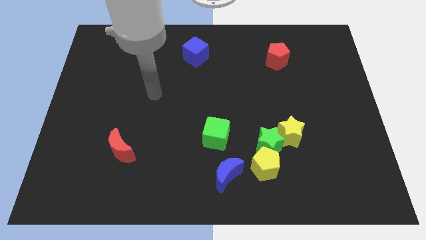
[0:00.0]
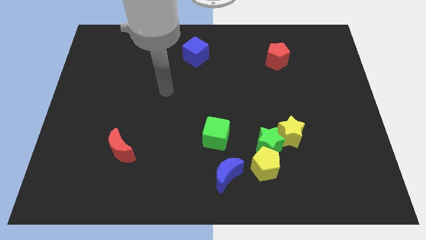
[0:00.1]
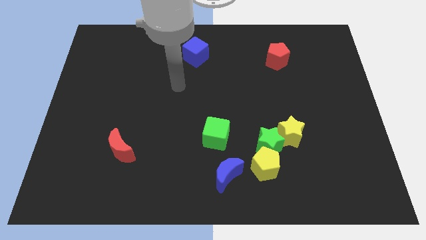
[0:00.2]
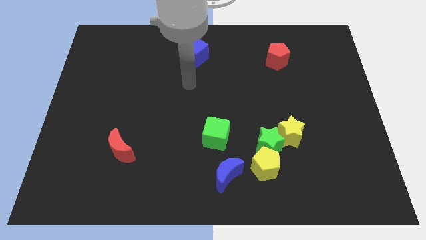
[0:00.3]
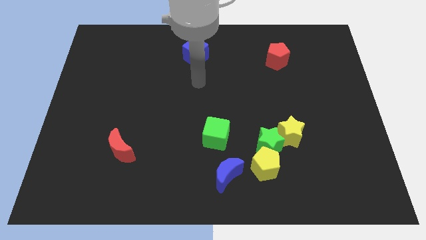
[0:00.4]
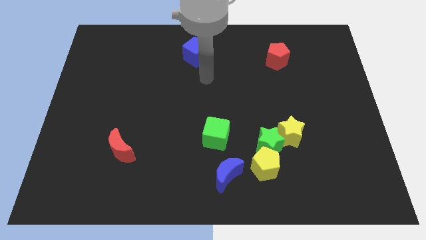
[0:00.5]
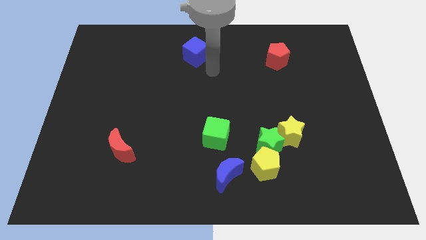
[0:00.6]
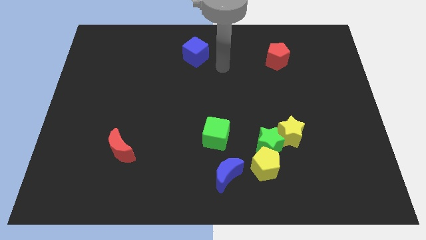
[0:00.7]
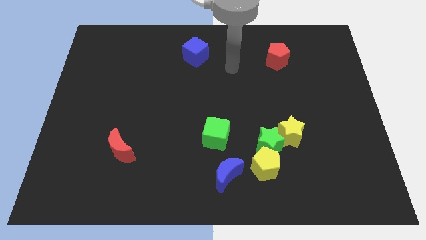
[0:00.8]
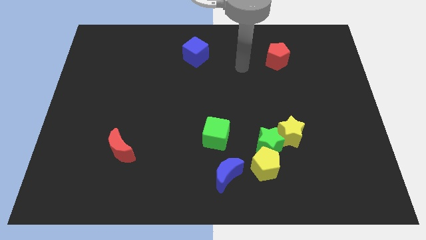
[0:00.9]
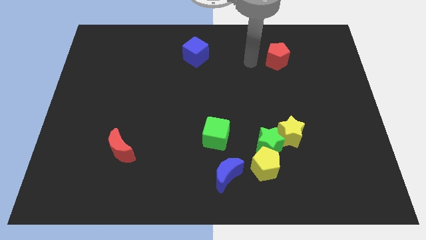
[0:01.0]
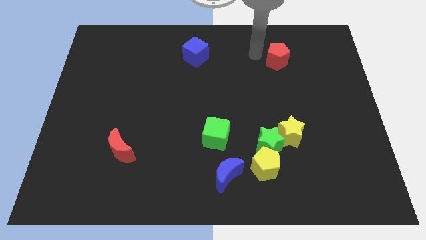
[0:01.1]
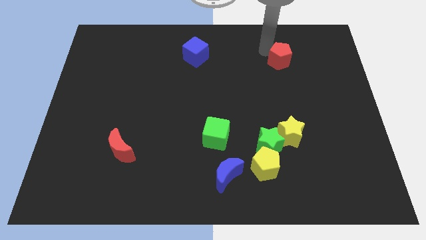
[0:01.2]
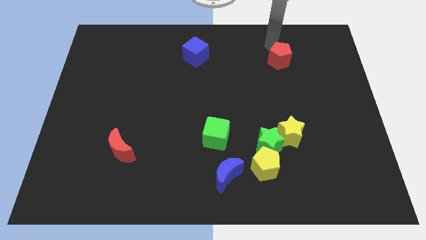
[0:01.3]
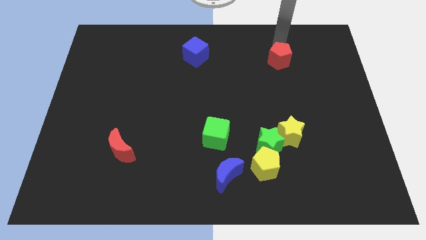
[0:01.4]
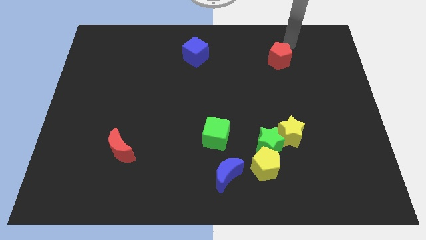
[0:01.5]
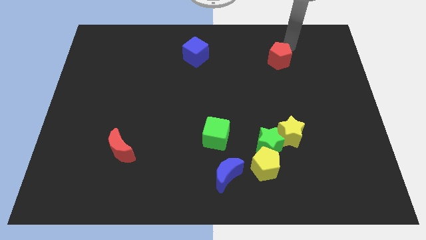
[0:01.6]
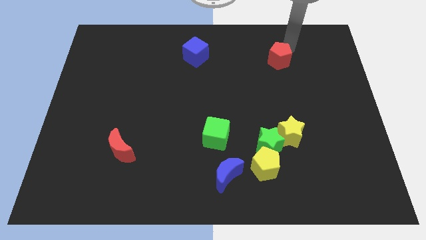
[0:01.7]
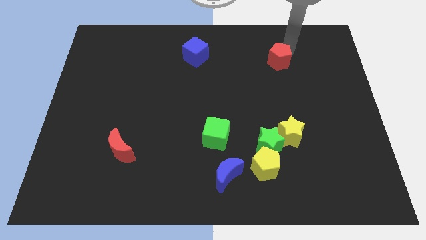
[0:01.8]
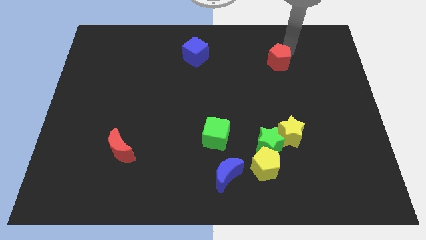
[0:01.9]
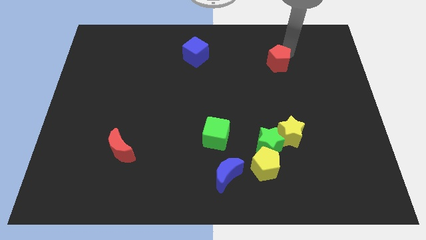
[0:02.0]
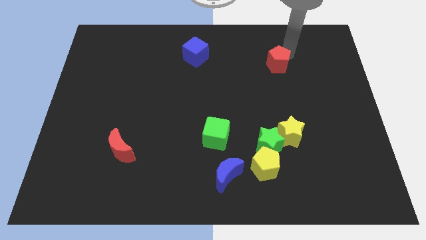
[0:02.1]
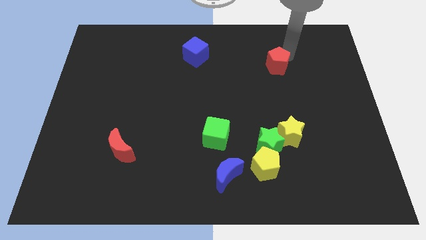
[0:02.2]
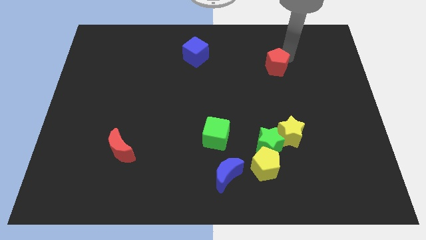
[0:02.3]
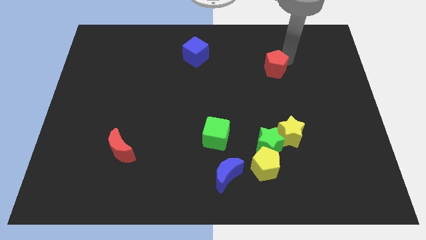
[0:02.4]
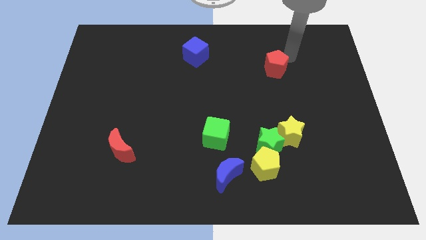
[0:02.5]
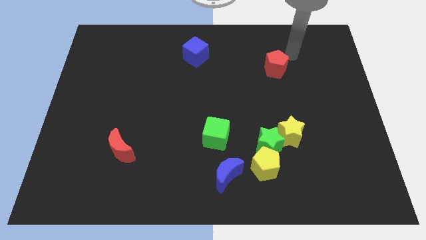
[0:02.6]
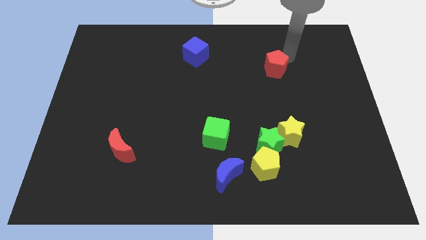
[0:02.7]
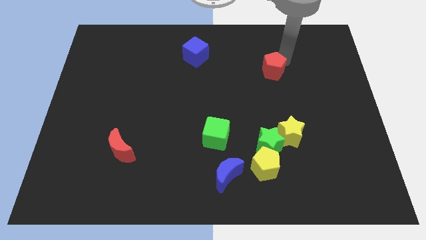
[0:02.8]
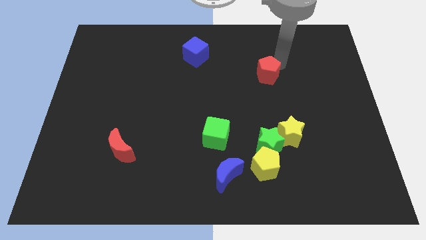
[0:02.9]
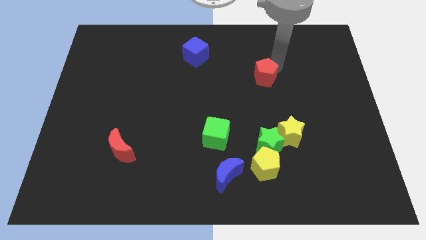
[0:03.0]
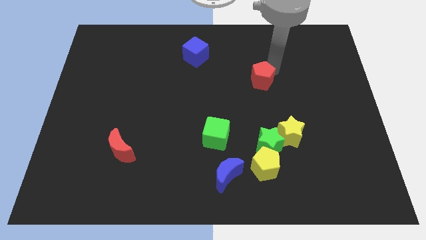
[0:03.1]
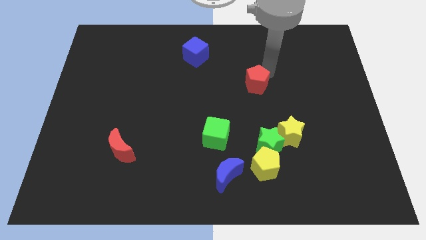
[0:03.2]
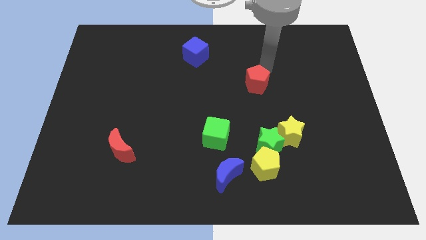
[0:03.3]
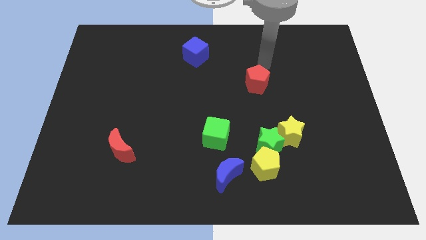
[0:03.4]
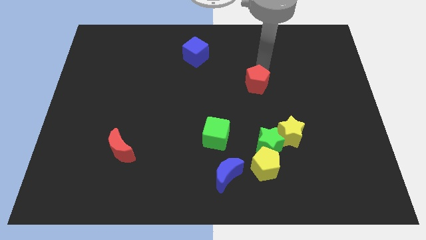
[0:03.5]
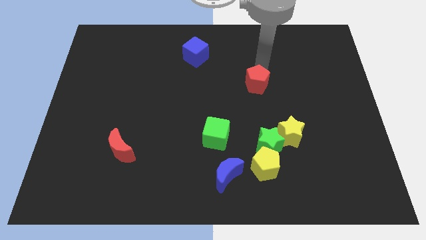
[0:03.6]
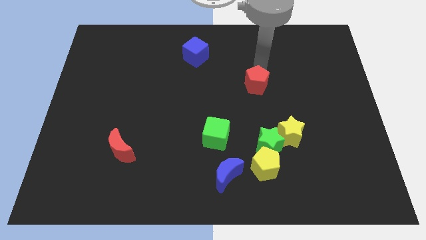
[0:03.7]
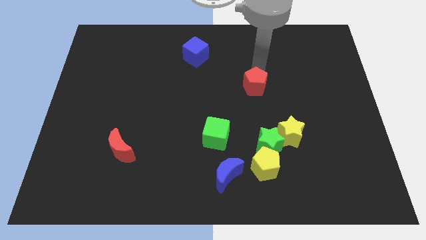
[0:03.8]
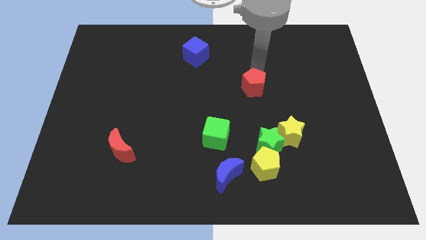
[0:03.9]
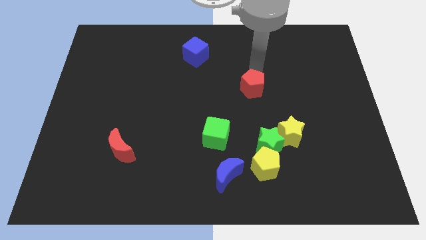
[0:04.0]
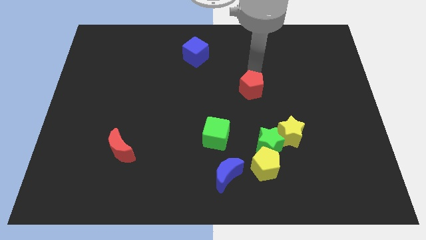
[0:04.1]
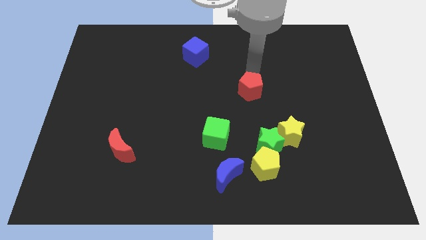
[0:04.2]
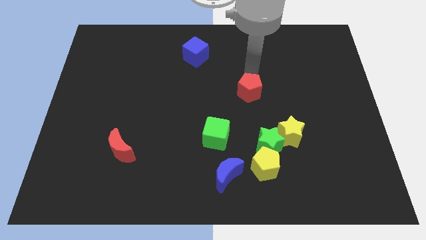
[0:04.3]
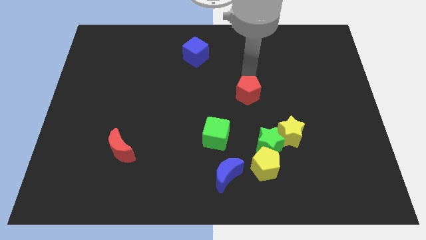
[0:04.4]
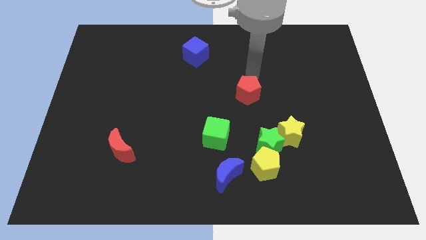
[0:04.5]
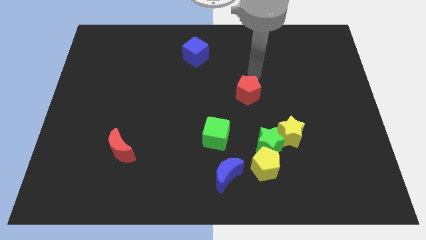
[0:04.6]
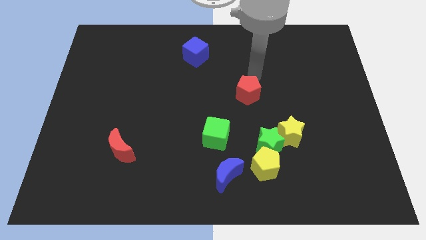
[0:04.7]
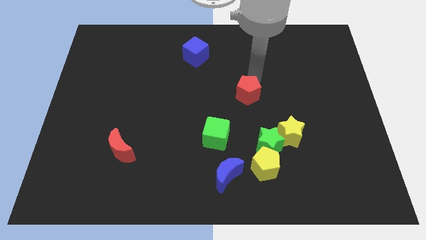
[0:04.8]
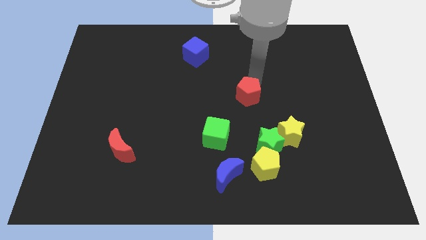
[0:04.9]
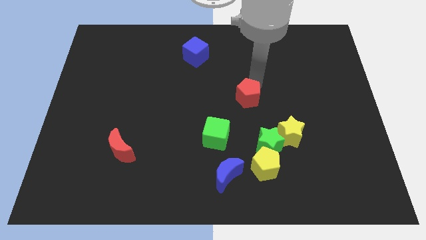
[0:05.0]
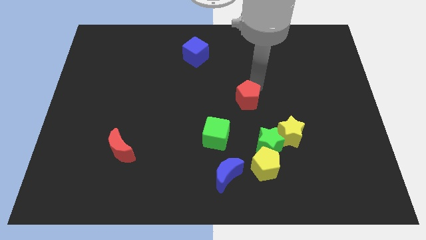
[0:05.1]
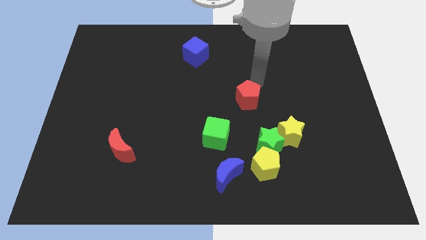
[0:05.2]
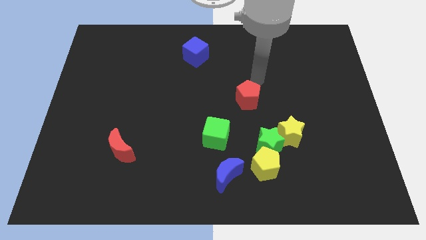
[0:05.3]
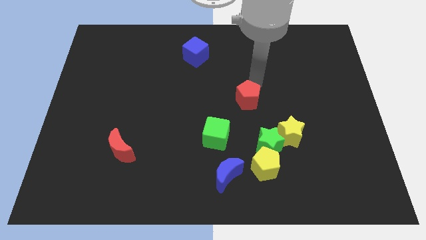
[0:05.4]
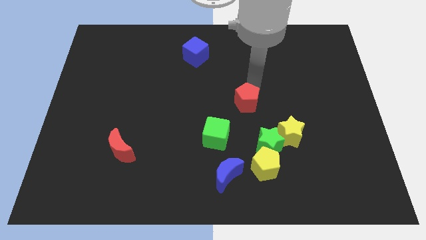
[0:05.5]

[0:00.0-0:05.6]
push the red pentagon to the top right side of the green cube

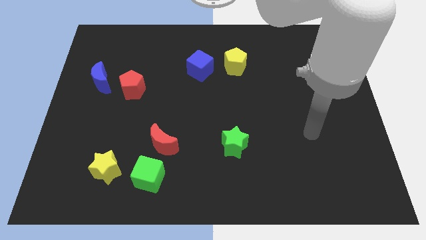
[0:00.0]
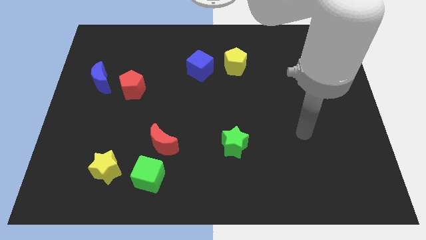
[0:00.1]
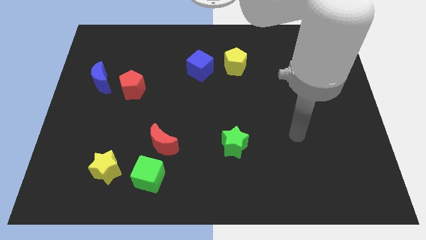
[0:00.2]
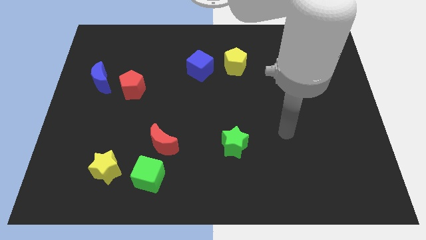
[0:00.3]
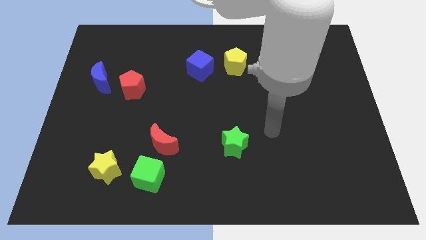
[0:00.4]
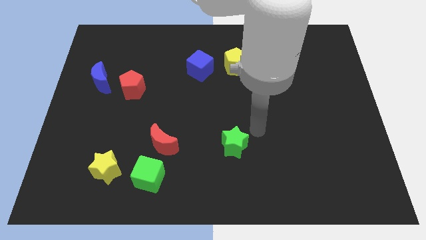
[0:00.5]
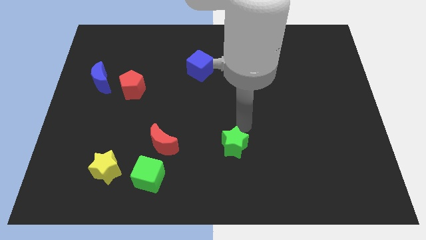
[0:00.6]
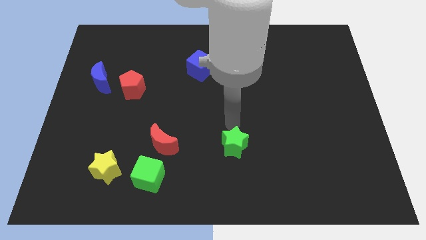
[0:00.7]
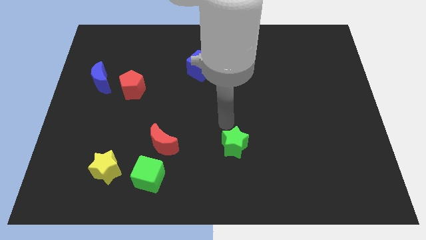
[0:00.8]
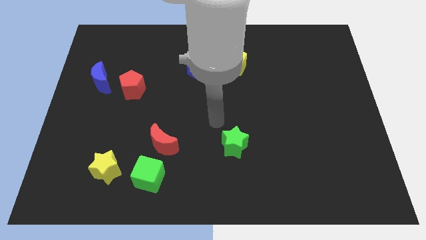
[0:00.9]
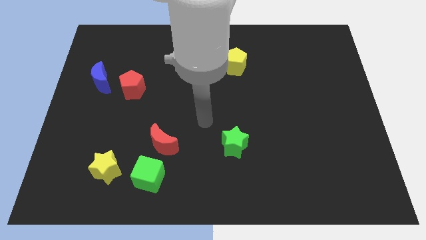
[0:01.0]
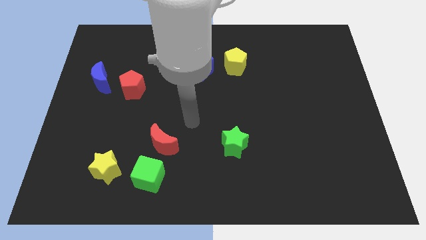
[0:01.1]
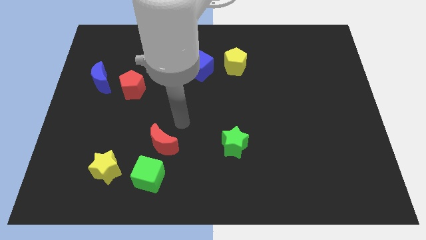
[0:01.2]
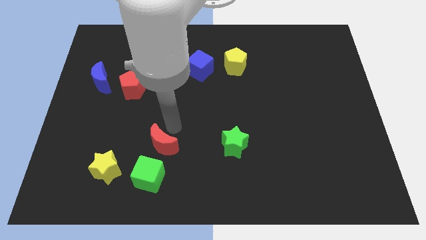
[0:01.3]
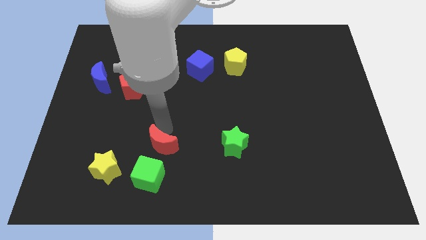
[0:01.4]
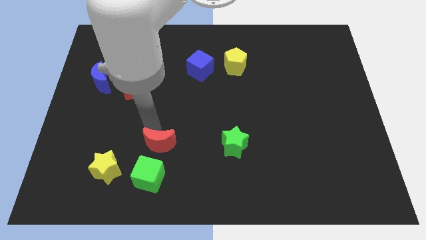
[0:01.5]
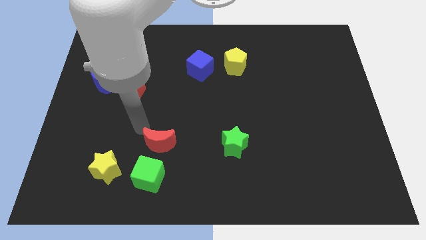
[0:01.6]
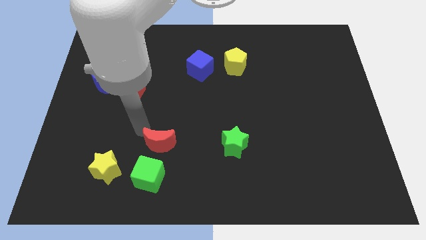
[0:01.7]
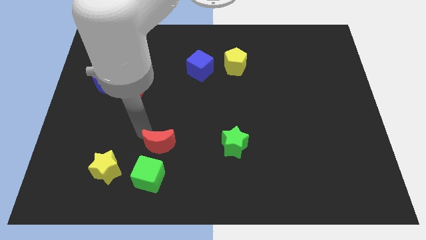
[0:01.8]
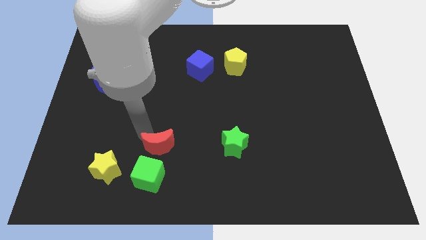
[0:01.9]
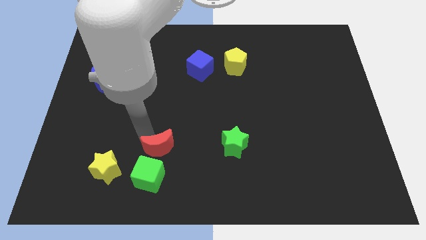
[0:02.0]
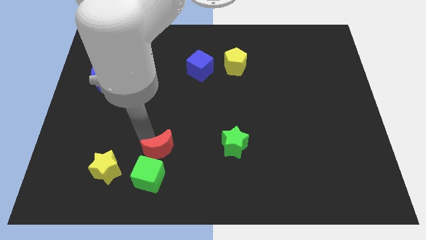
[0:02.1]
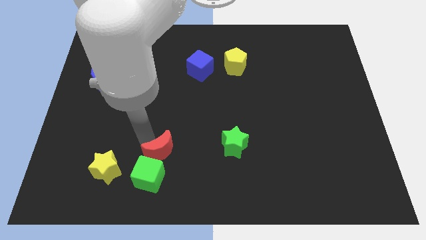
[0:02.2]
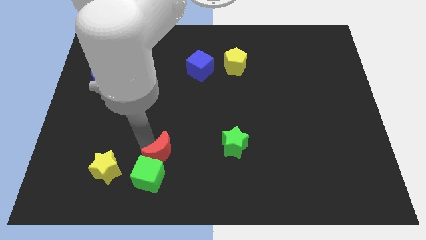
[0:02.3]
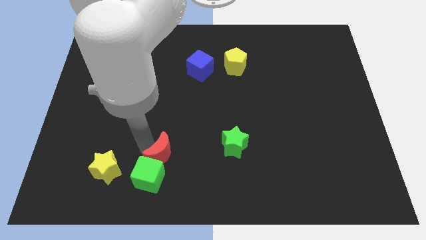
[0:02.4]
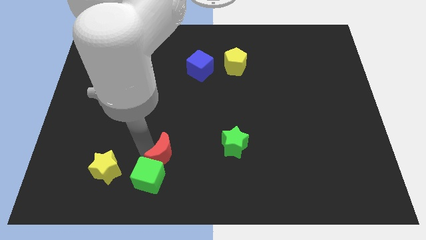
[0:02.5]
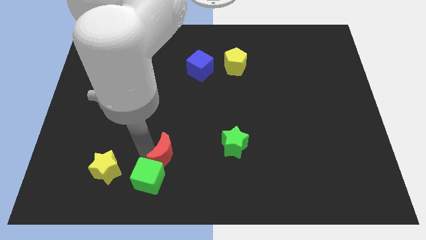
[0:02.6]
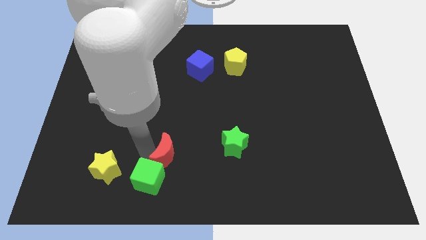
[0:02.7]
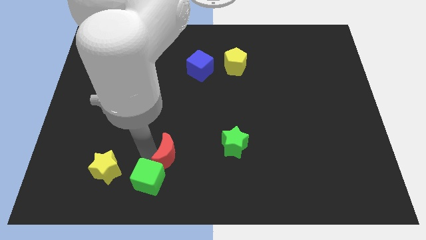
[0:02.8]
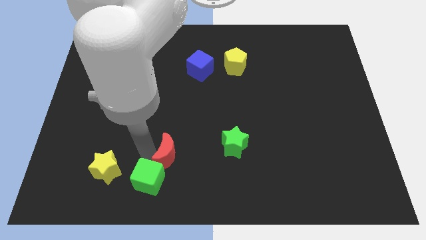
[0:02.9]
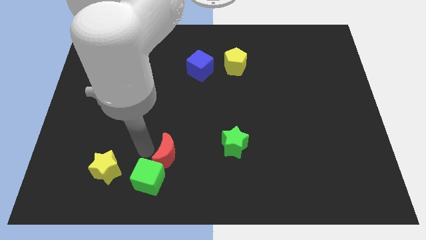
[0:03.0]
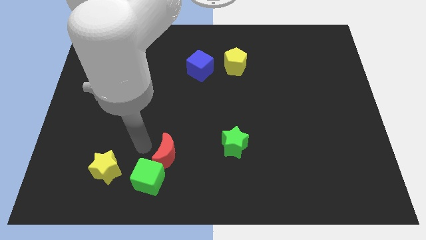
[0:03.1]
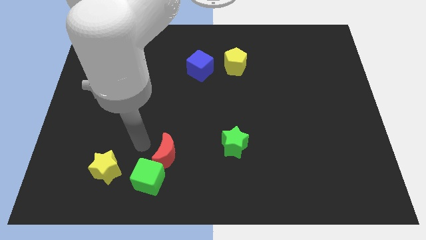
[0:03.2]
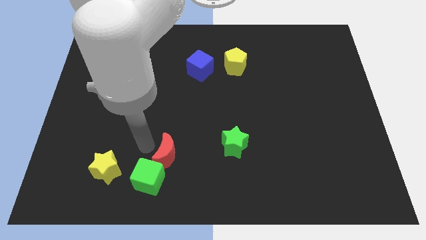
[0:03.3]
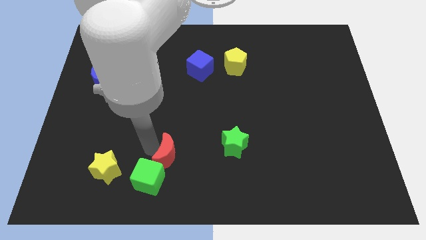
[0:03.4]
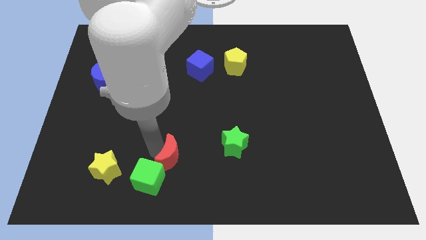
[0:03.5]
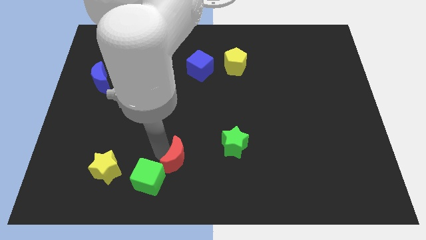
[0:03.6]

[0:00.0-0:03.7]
move the red moon just right of the green cube
